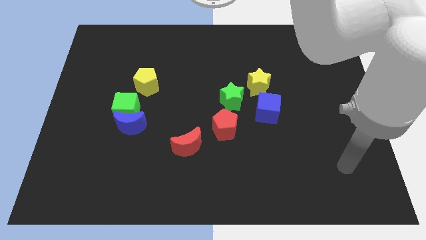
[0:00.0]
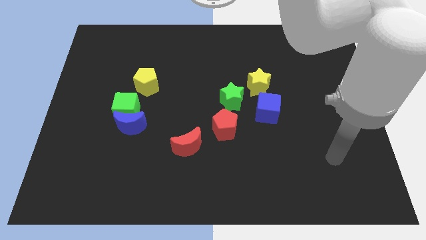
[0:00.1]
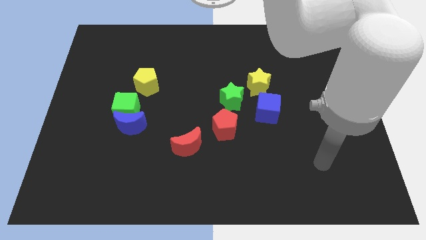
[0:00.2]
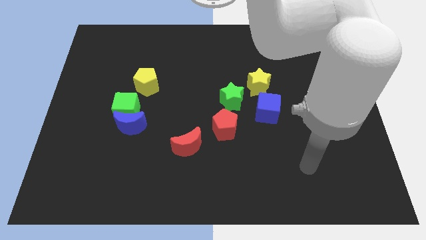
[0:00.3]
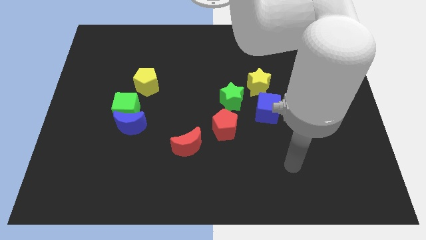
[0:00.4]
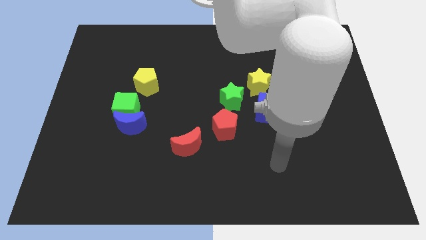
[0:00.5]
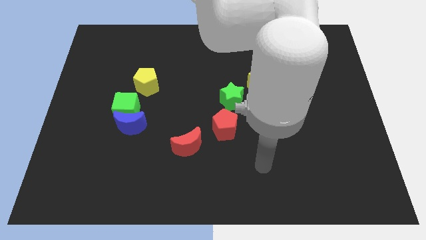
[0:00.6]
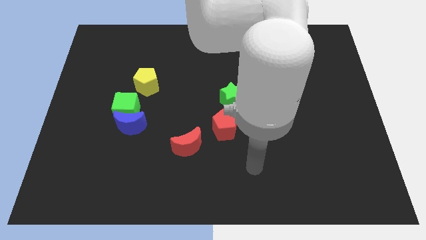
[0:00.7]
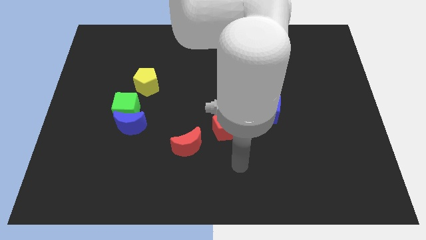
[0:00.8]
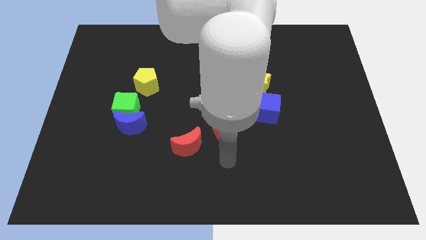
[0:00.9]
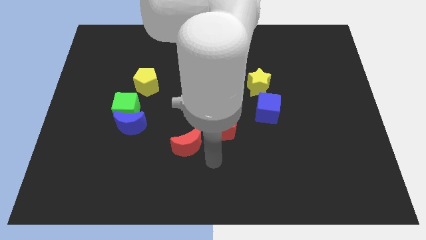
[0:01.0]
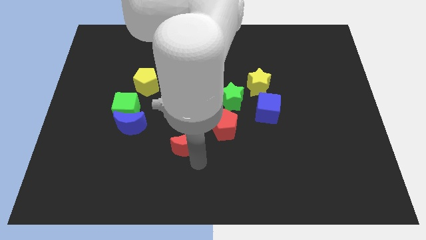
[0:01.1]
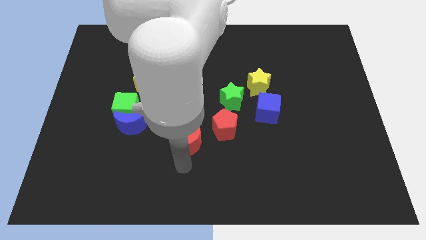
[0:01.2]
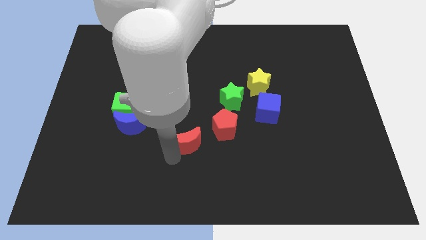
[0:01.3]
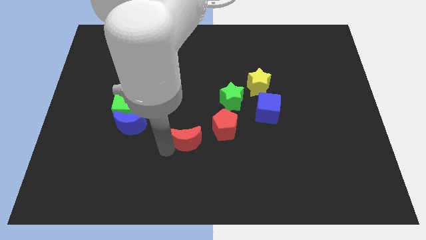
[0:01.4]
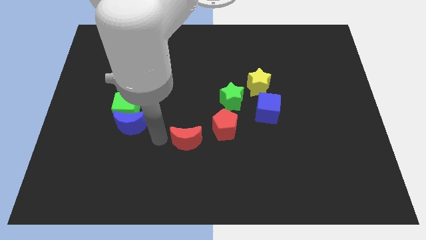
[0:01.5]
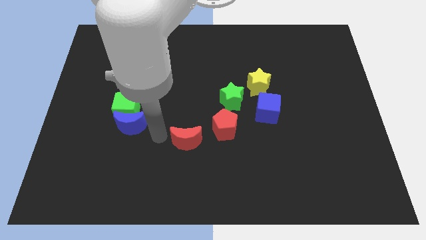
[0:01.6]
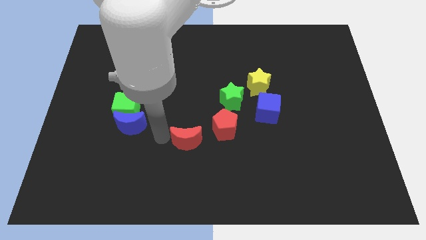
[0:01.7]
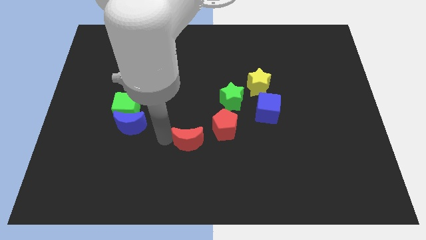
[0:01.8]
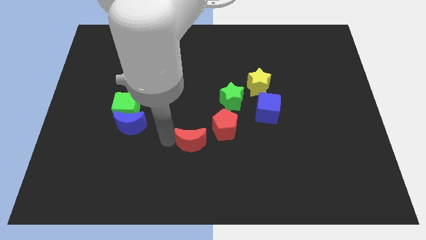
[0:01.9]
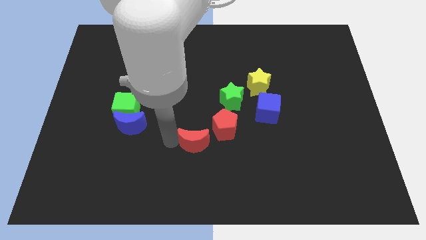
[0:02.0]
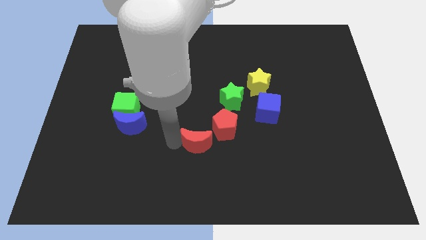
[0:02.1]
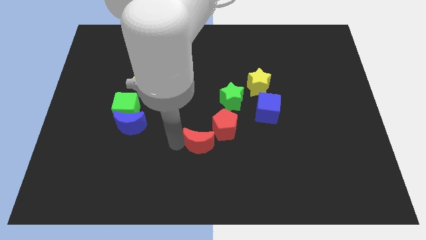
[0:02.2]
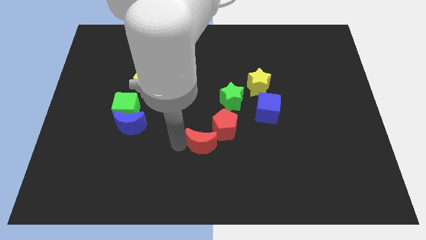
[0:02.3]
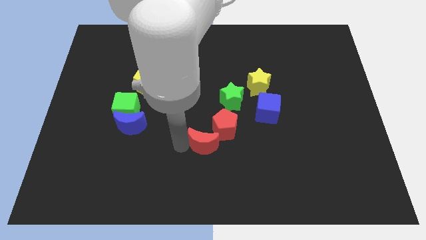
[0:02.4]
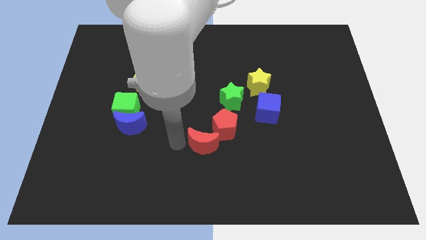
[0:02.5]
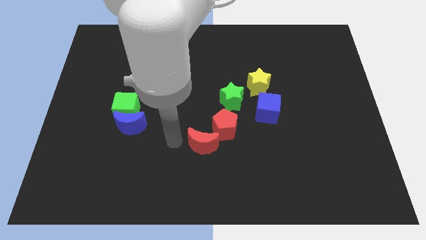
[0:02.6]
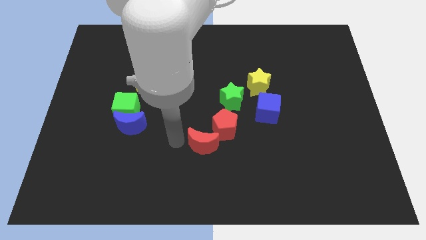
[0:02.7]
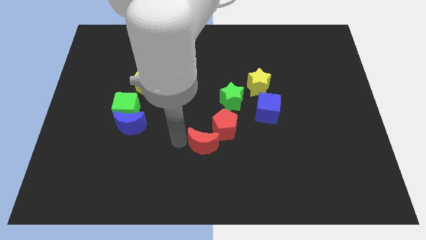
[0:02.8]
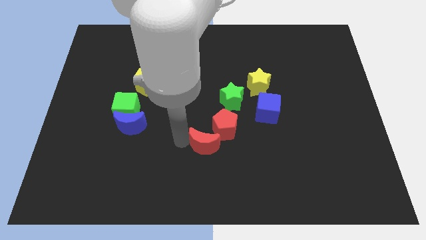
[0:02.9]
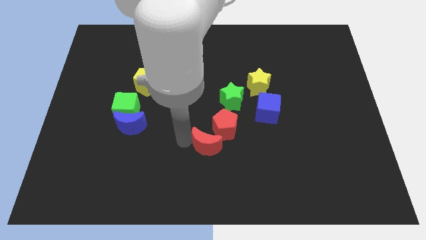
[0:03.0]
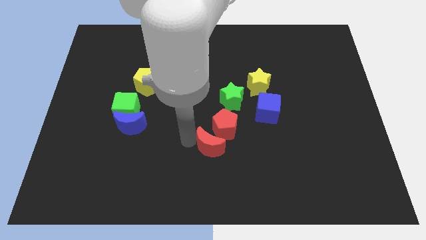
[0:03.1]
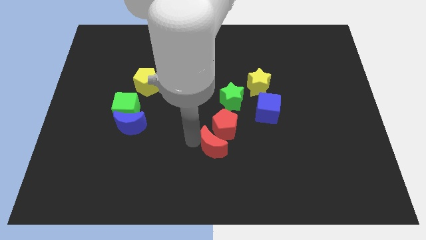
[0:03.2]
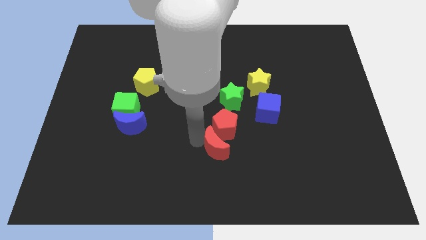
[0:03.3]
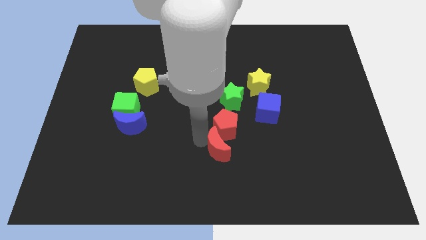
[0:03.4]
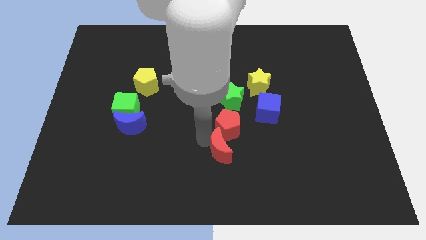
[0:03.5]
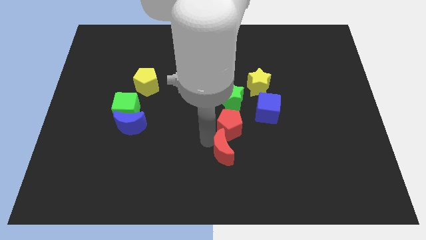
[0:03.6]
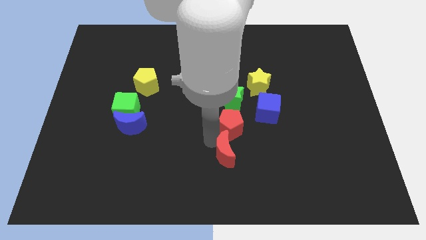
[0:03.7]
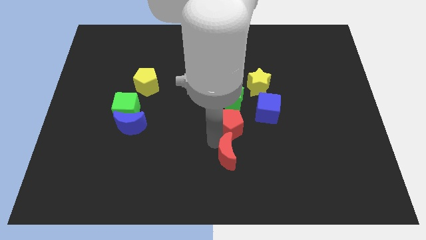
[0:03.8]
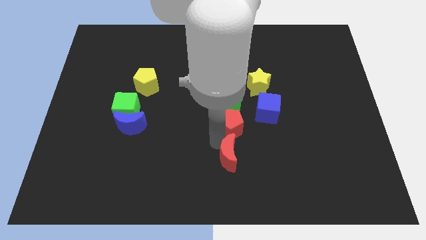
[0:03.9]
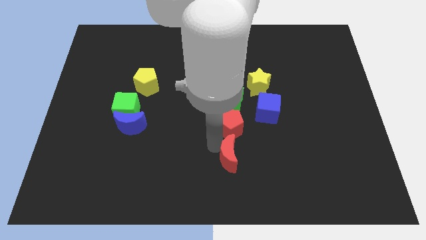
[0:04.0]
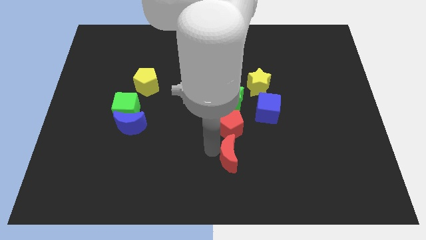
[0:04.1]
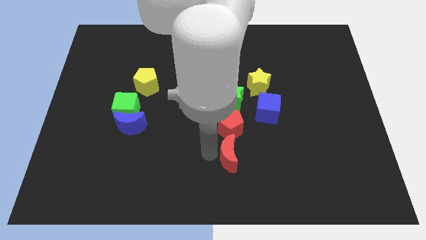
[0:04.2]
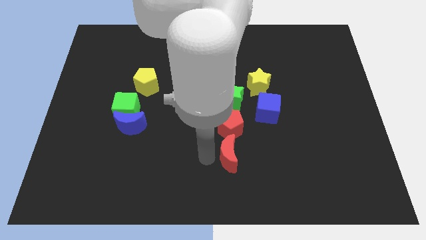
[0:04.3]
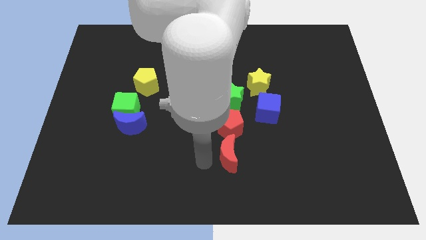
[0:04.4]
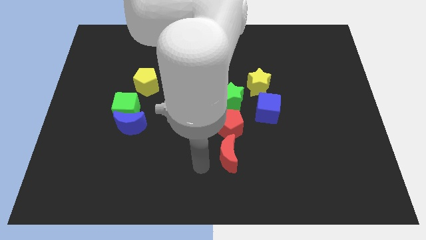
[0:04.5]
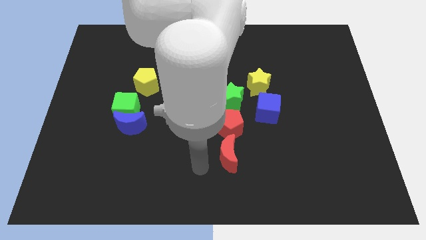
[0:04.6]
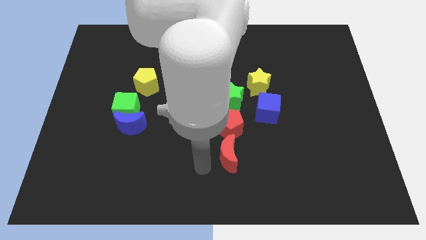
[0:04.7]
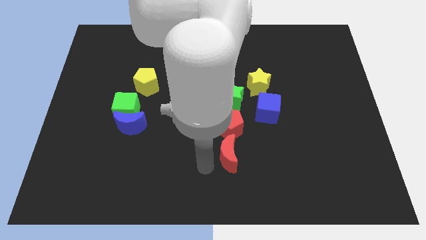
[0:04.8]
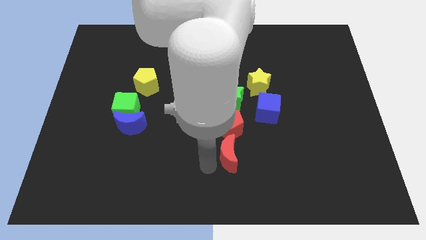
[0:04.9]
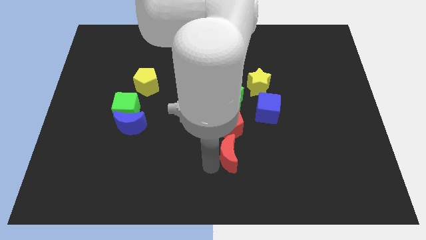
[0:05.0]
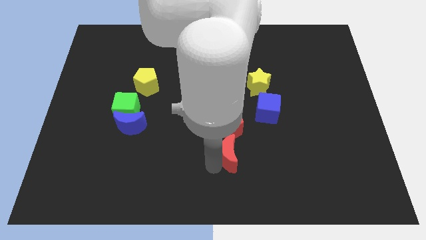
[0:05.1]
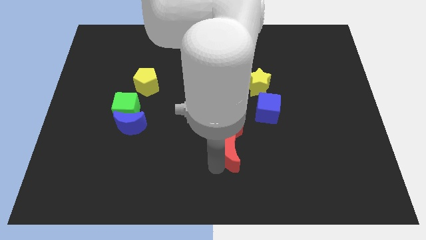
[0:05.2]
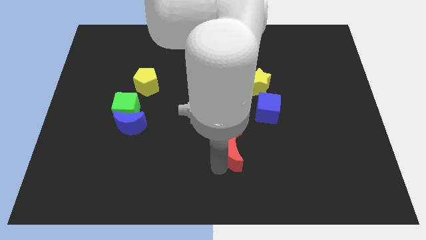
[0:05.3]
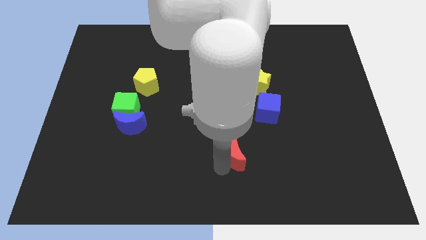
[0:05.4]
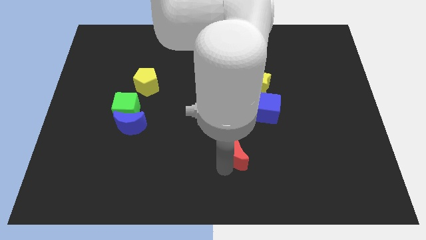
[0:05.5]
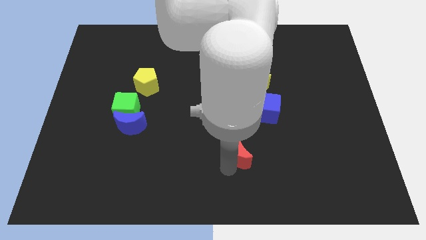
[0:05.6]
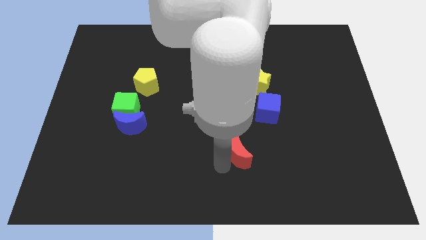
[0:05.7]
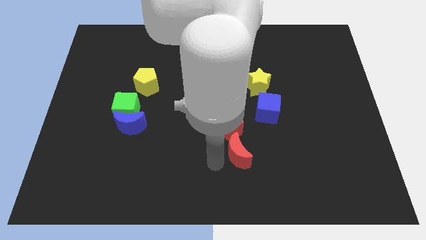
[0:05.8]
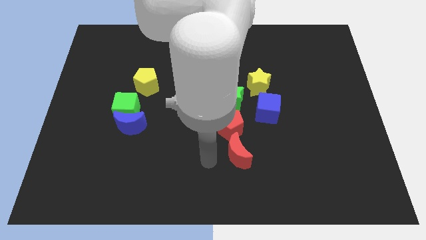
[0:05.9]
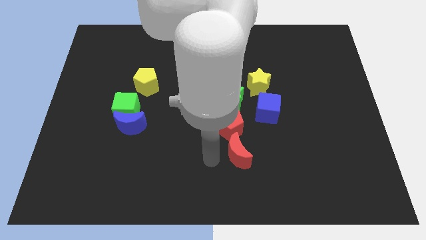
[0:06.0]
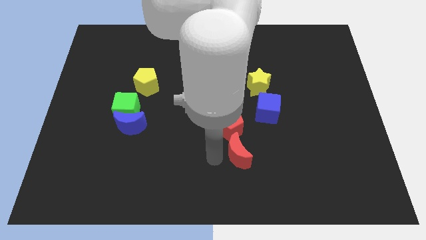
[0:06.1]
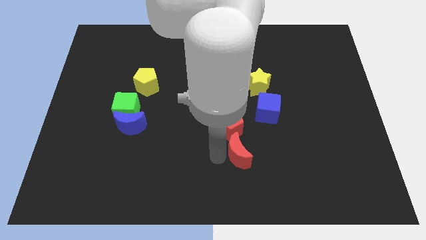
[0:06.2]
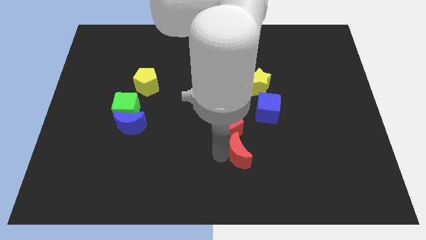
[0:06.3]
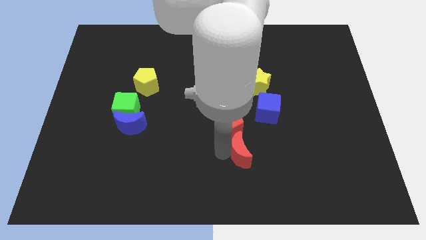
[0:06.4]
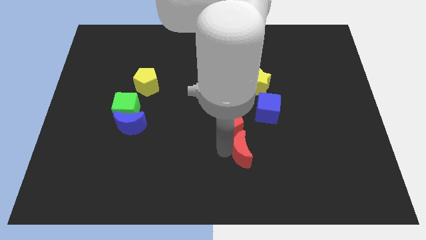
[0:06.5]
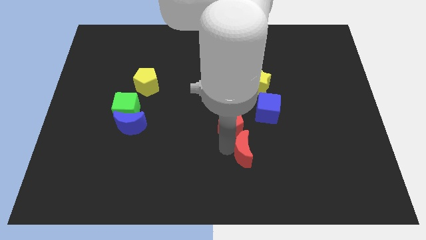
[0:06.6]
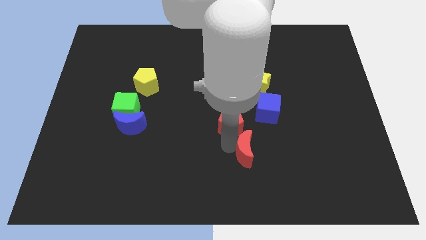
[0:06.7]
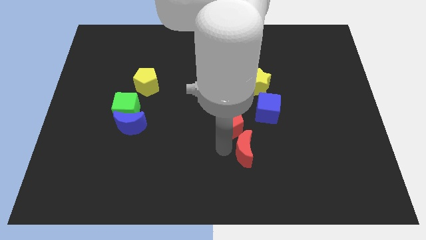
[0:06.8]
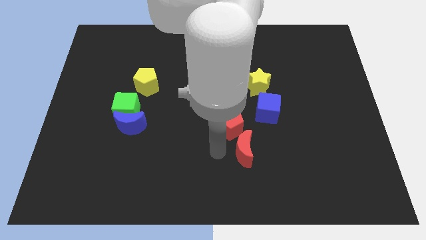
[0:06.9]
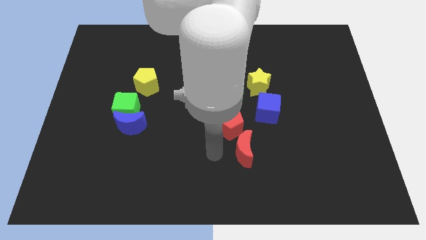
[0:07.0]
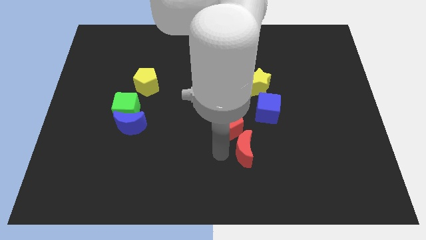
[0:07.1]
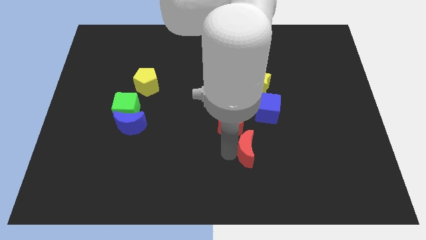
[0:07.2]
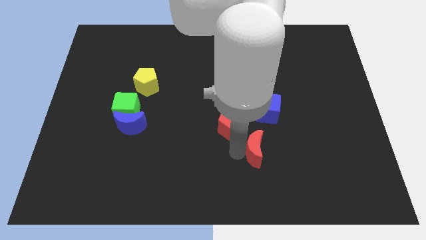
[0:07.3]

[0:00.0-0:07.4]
slide the red moon below the blue cube
